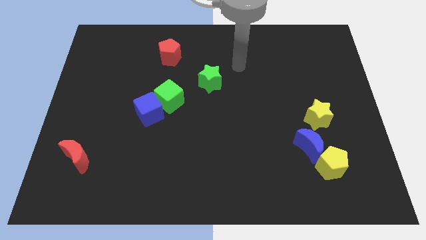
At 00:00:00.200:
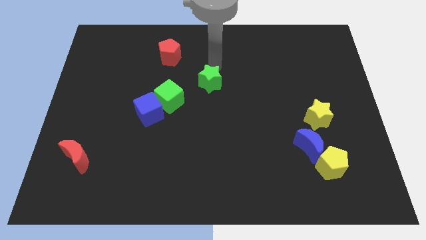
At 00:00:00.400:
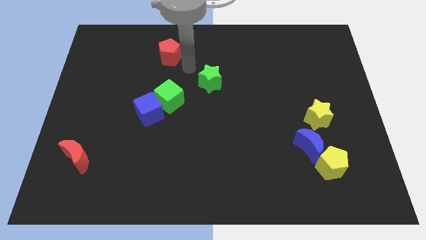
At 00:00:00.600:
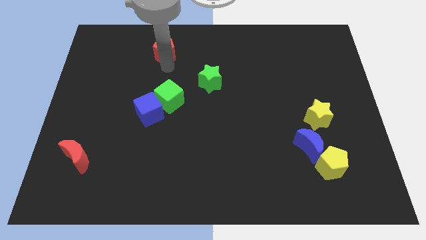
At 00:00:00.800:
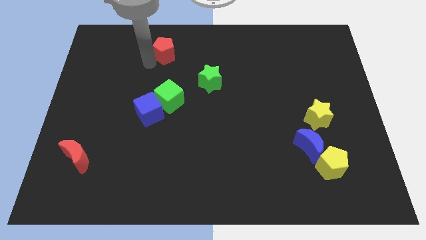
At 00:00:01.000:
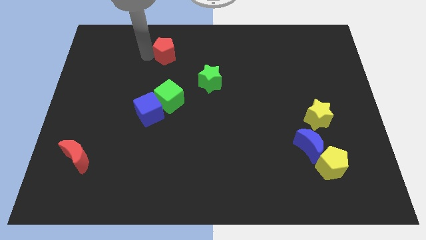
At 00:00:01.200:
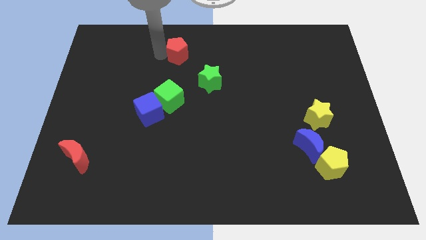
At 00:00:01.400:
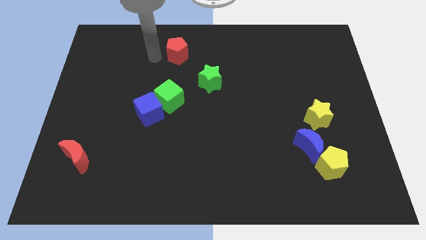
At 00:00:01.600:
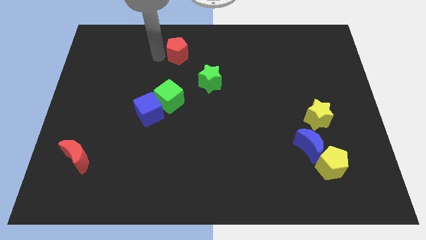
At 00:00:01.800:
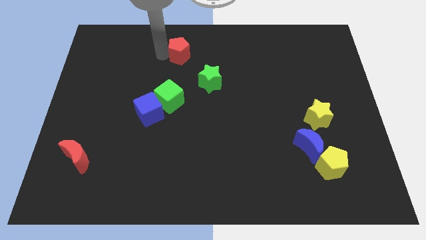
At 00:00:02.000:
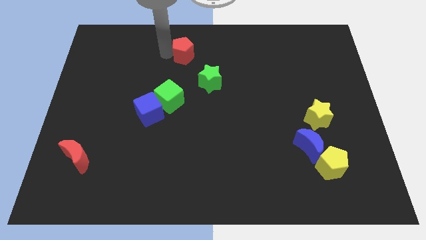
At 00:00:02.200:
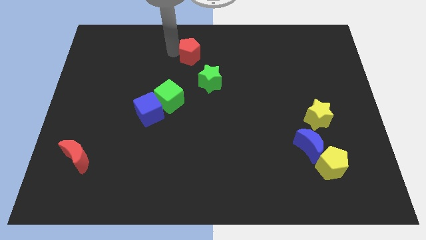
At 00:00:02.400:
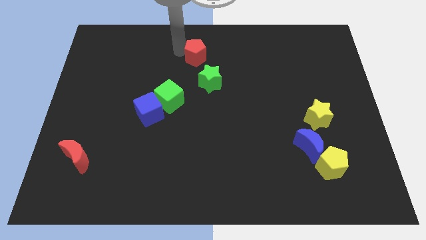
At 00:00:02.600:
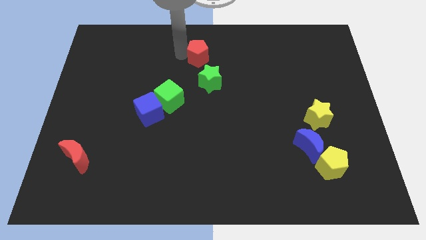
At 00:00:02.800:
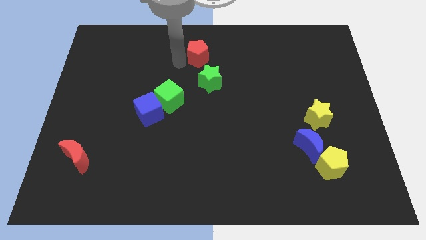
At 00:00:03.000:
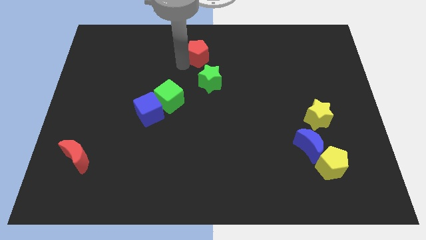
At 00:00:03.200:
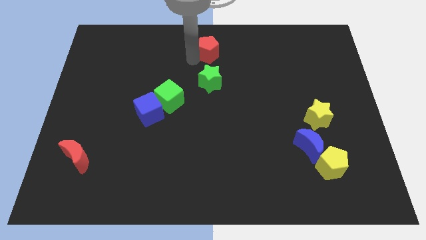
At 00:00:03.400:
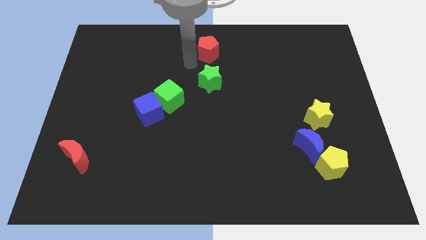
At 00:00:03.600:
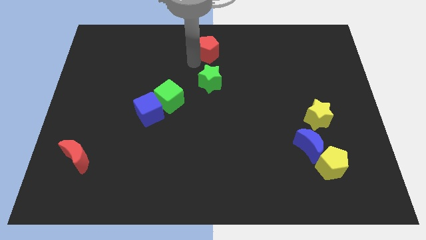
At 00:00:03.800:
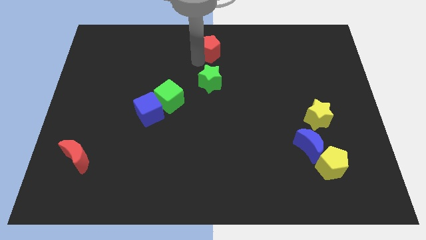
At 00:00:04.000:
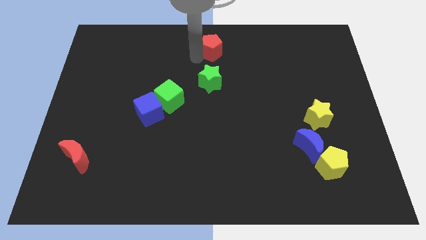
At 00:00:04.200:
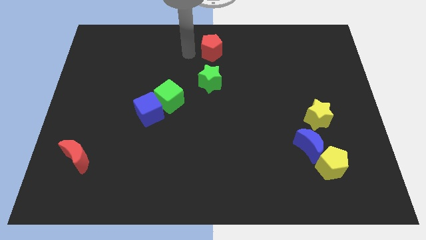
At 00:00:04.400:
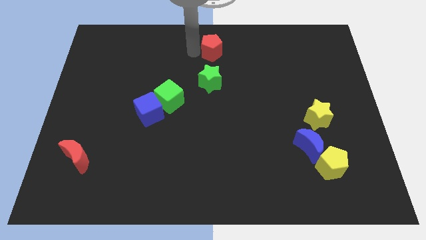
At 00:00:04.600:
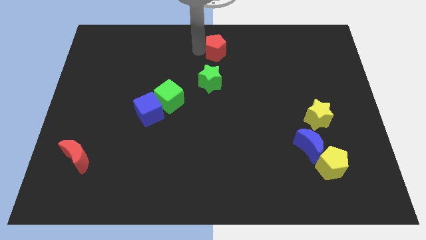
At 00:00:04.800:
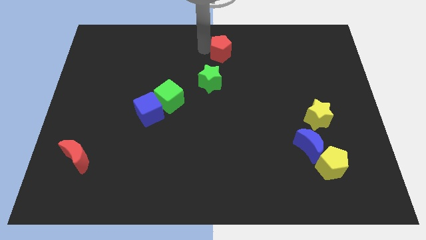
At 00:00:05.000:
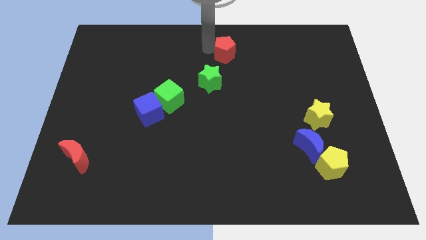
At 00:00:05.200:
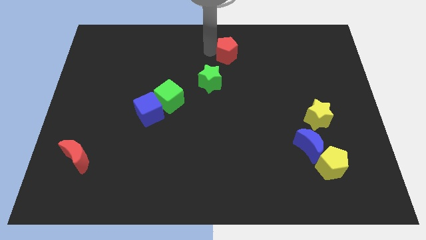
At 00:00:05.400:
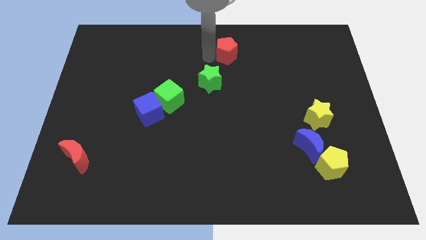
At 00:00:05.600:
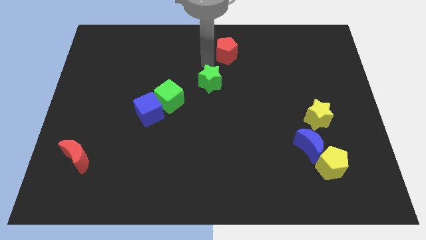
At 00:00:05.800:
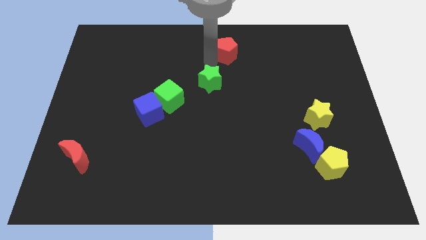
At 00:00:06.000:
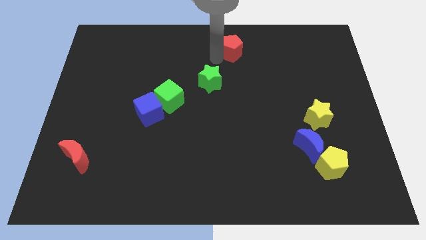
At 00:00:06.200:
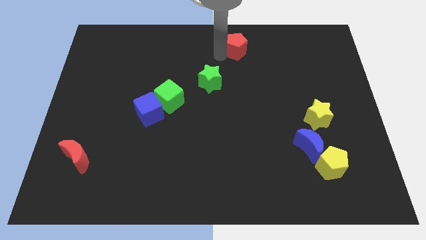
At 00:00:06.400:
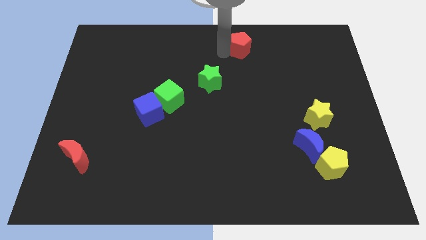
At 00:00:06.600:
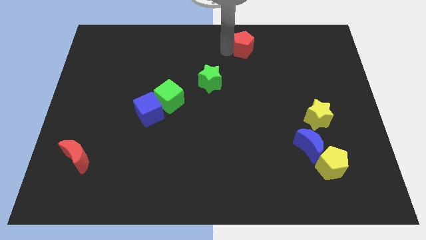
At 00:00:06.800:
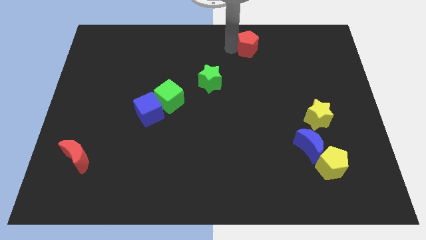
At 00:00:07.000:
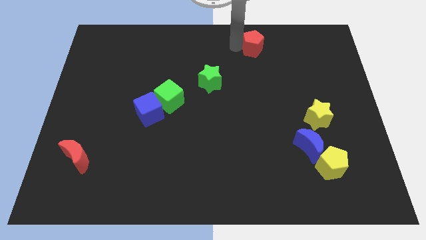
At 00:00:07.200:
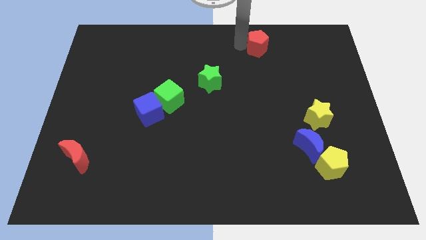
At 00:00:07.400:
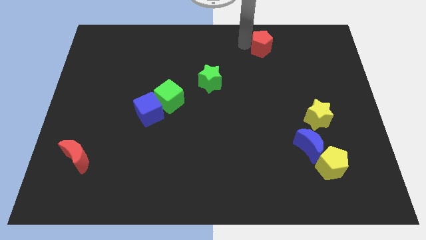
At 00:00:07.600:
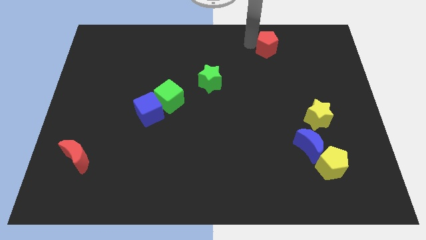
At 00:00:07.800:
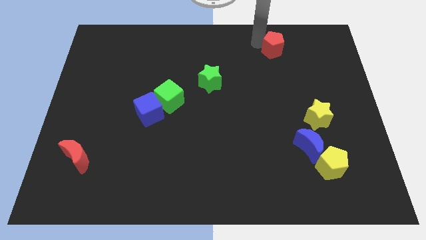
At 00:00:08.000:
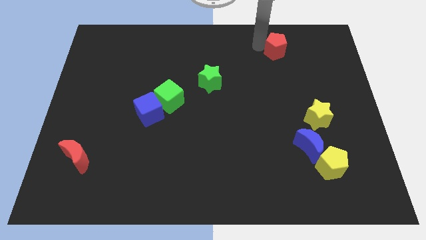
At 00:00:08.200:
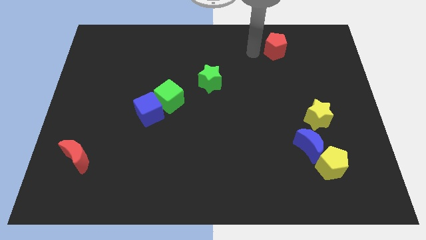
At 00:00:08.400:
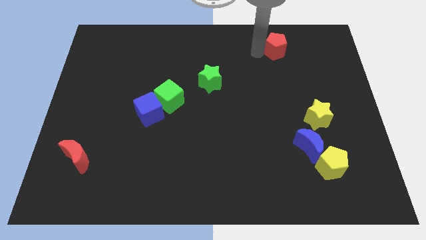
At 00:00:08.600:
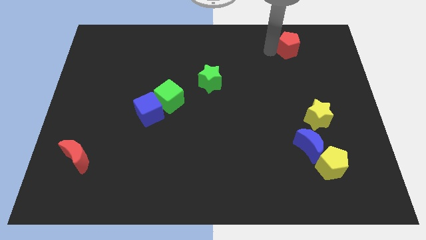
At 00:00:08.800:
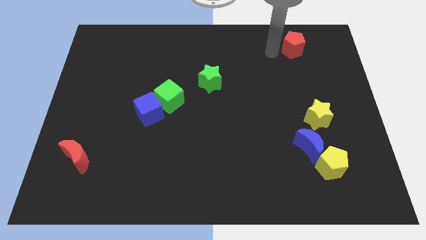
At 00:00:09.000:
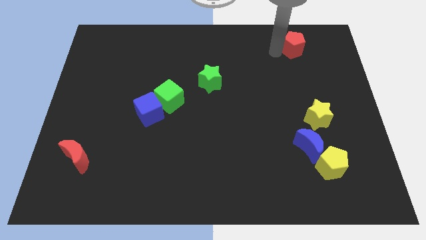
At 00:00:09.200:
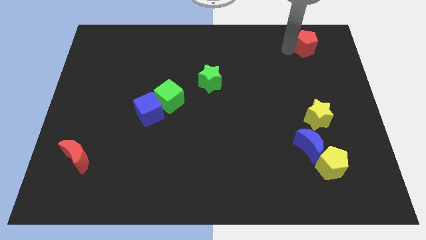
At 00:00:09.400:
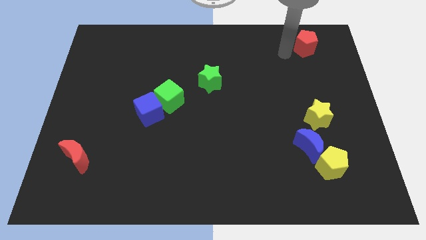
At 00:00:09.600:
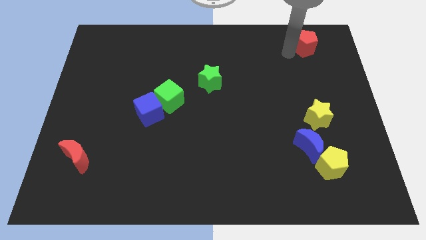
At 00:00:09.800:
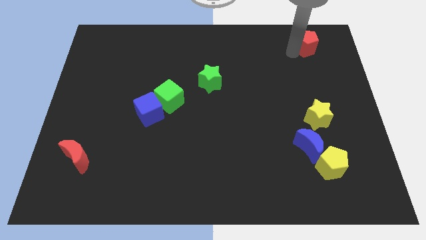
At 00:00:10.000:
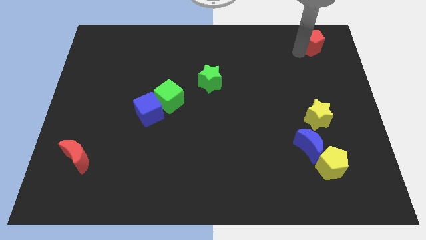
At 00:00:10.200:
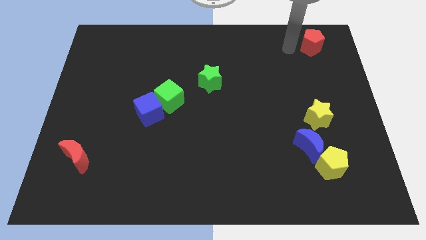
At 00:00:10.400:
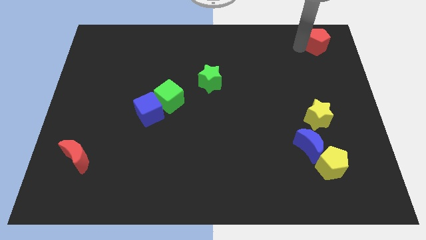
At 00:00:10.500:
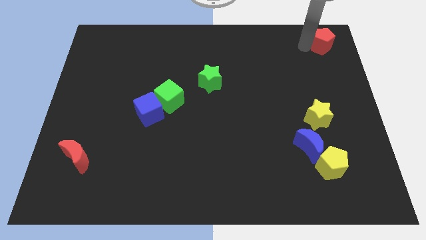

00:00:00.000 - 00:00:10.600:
push the red pentagon to the top right
